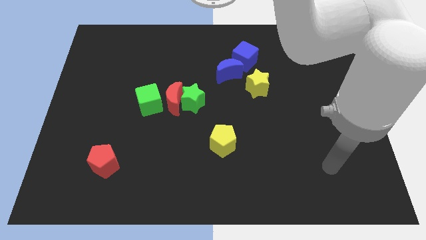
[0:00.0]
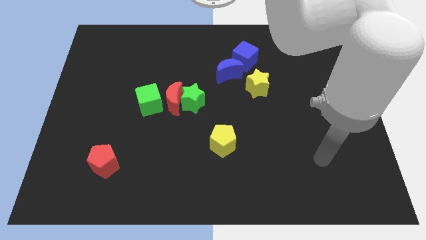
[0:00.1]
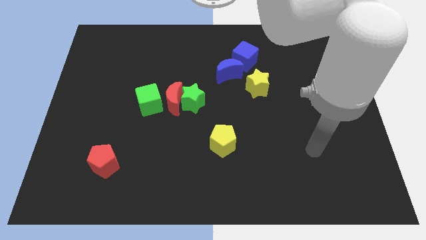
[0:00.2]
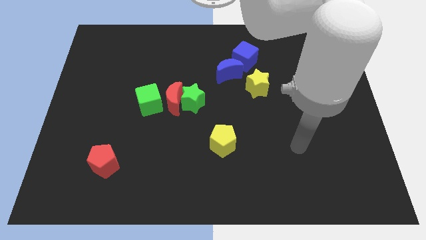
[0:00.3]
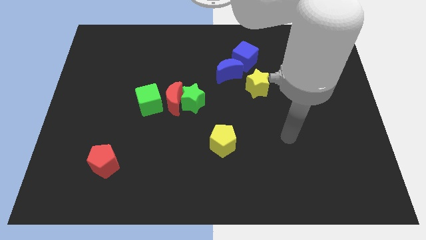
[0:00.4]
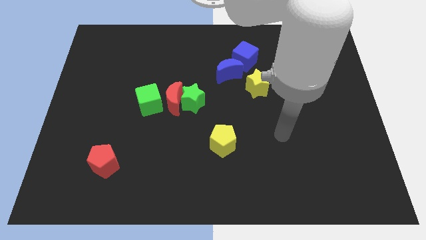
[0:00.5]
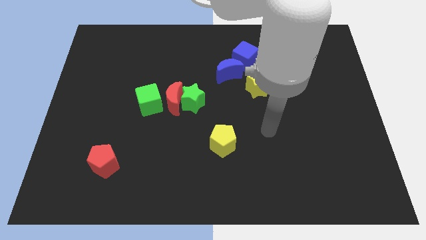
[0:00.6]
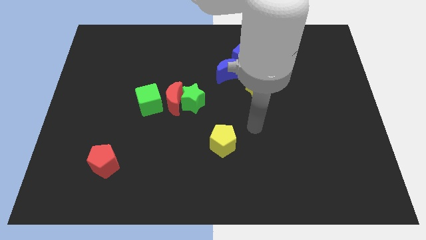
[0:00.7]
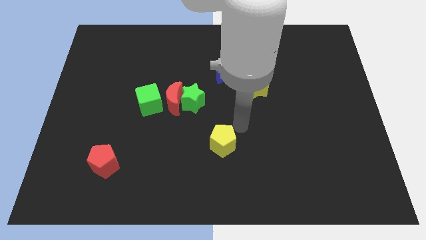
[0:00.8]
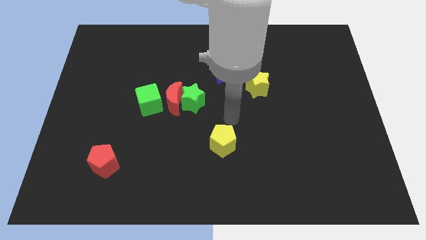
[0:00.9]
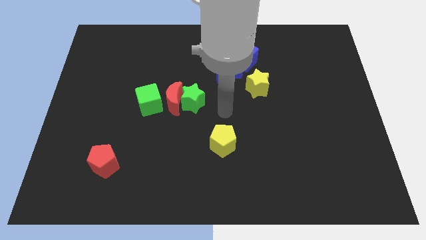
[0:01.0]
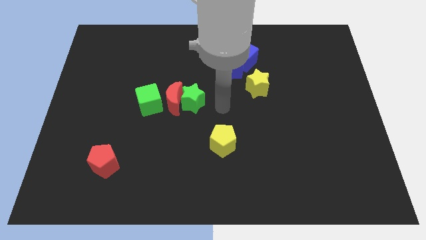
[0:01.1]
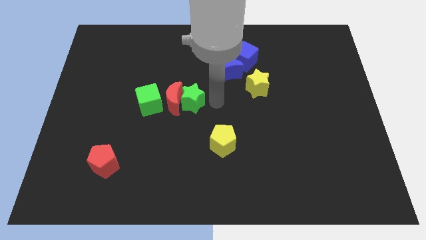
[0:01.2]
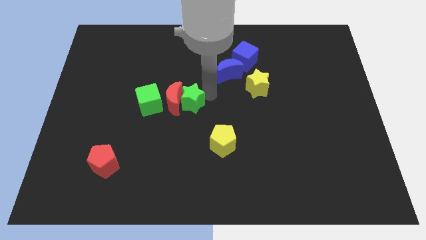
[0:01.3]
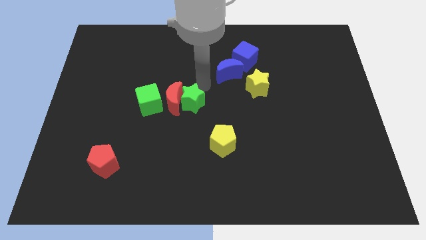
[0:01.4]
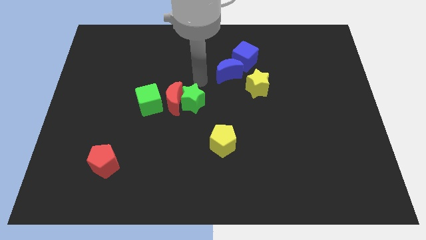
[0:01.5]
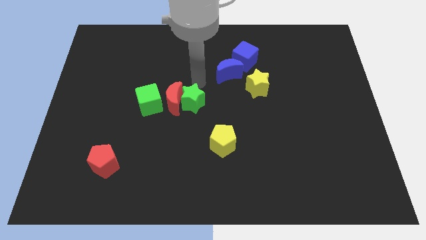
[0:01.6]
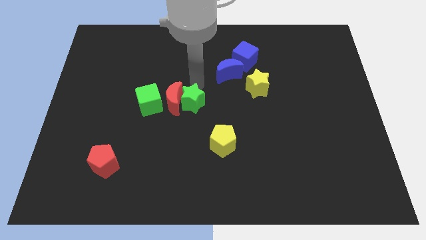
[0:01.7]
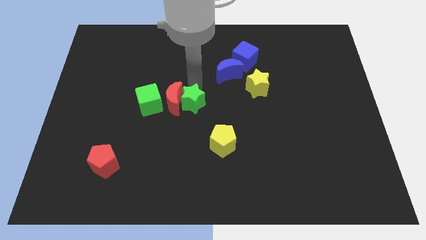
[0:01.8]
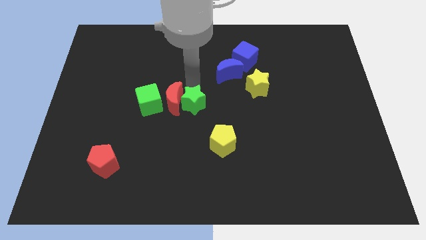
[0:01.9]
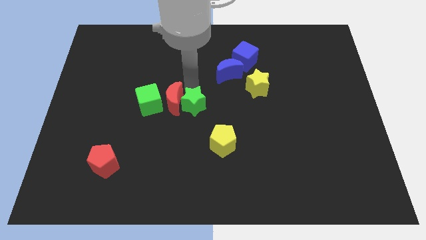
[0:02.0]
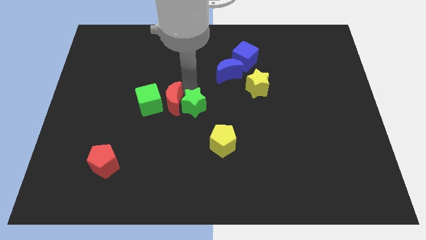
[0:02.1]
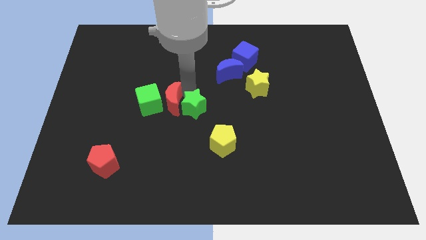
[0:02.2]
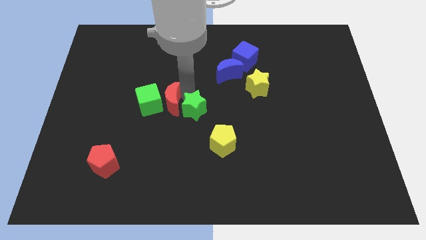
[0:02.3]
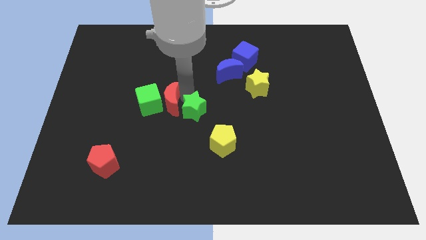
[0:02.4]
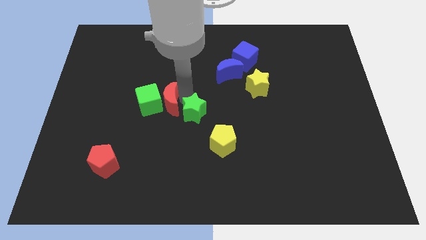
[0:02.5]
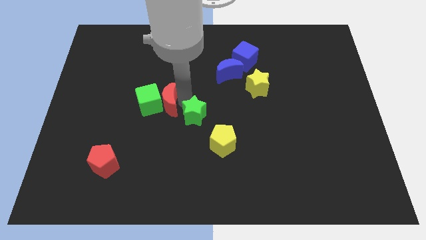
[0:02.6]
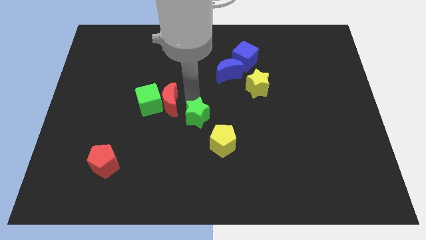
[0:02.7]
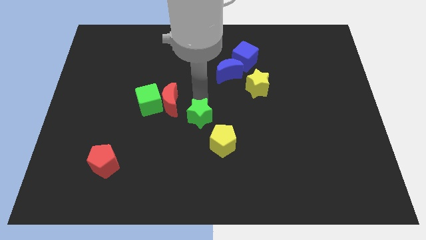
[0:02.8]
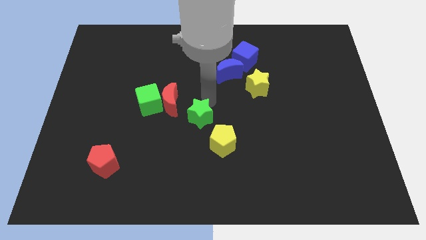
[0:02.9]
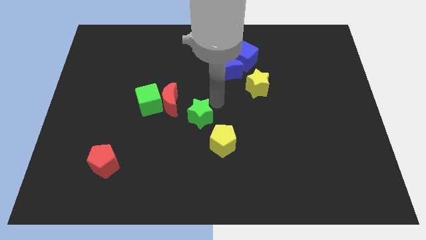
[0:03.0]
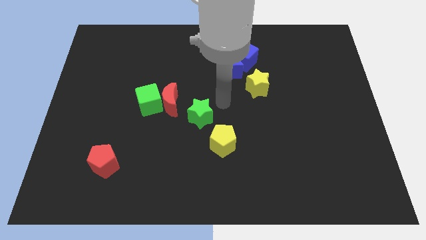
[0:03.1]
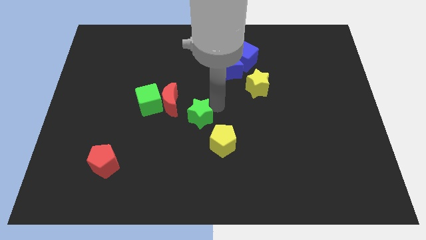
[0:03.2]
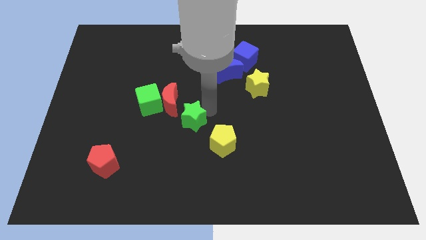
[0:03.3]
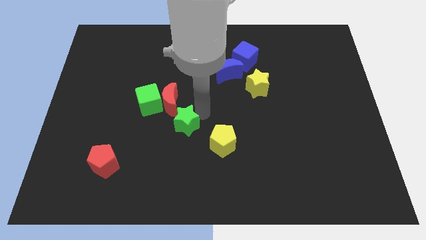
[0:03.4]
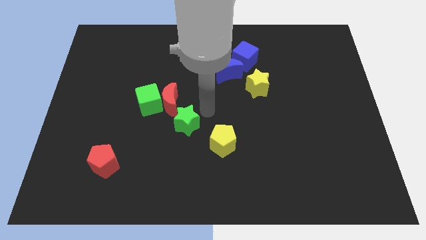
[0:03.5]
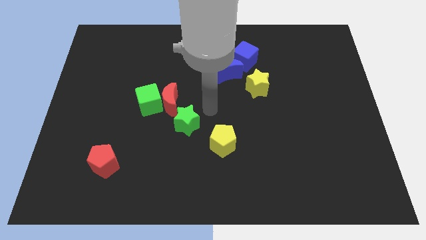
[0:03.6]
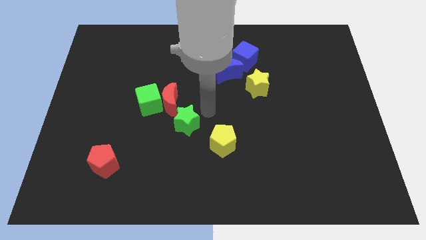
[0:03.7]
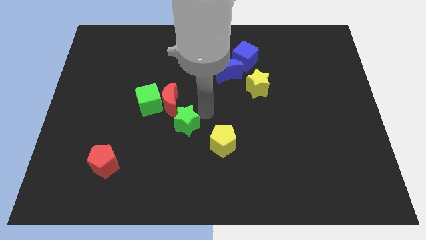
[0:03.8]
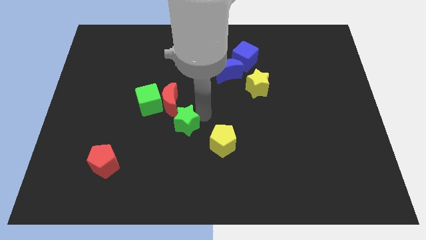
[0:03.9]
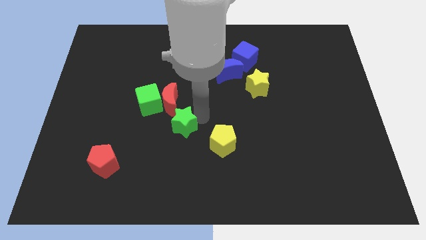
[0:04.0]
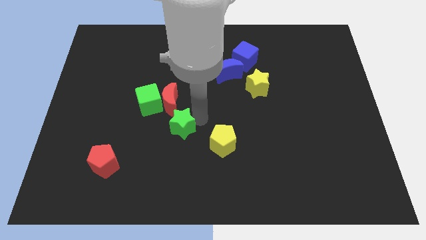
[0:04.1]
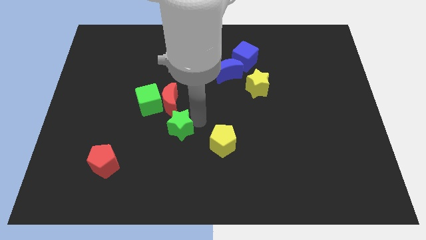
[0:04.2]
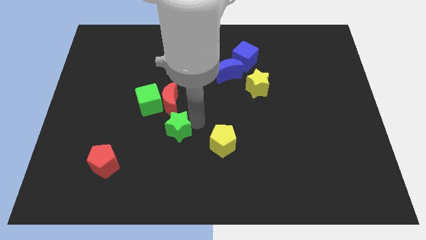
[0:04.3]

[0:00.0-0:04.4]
slide the green star diagonally down and to the left somewhat

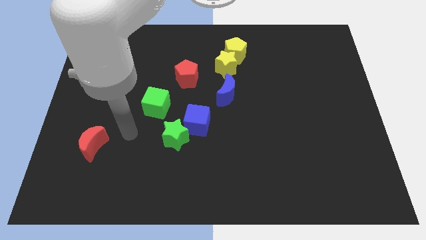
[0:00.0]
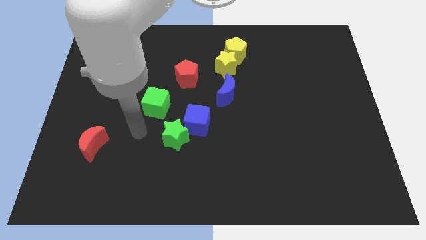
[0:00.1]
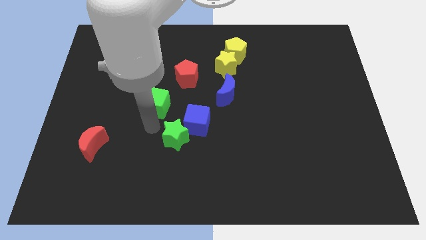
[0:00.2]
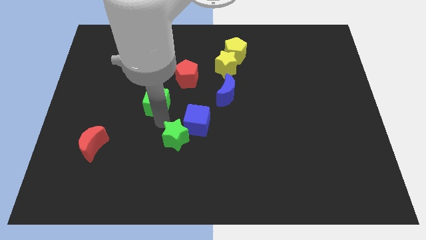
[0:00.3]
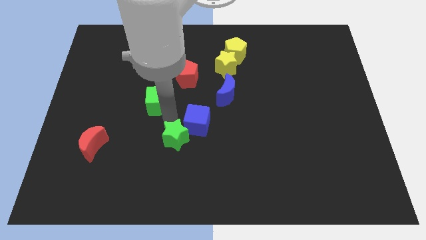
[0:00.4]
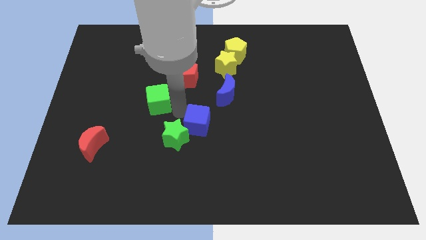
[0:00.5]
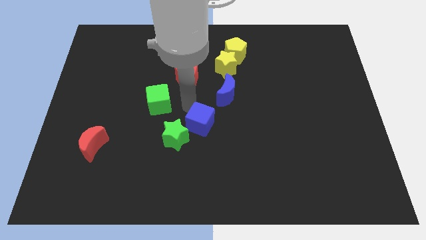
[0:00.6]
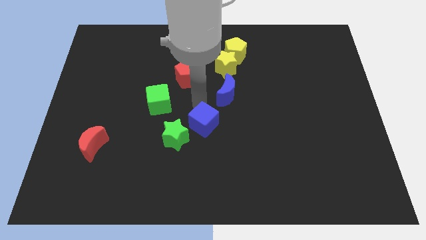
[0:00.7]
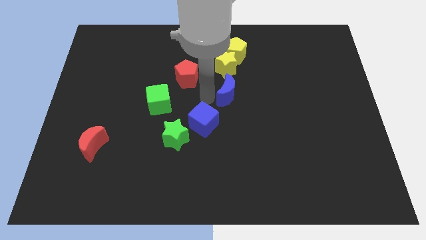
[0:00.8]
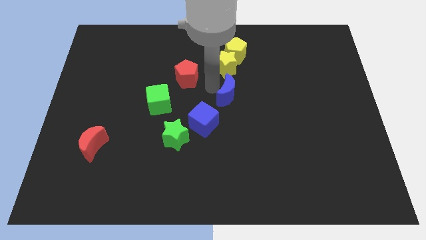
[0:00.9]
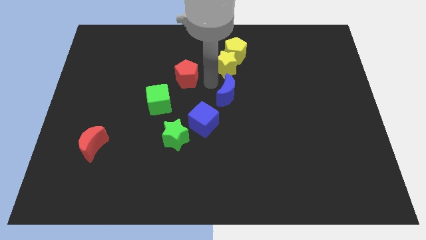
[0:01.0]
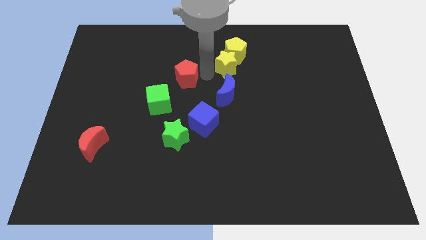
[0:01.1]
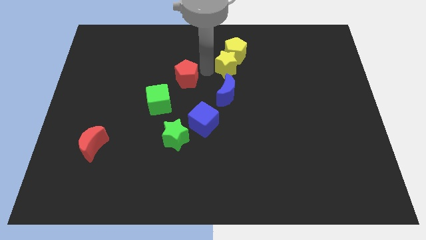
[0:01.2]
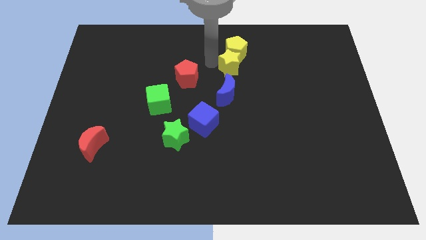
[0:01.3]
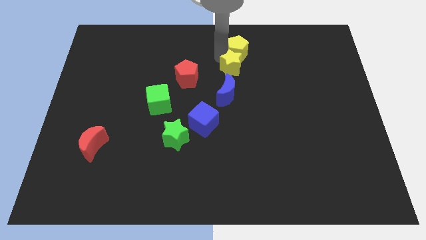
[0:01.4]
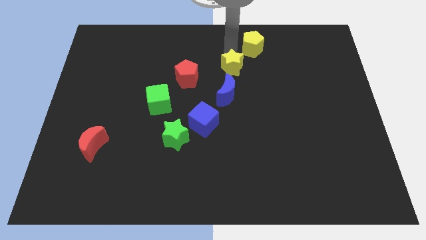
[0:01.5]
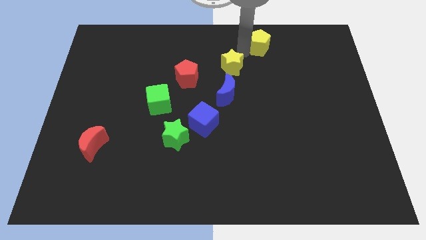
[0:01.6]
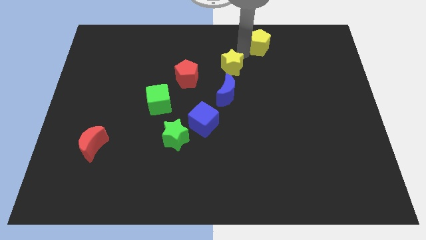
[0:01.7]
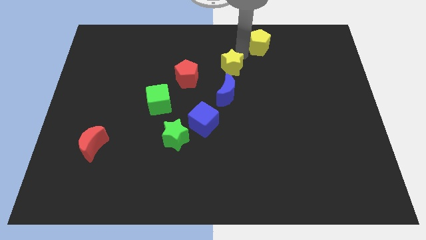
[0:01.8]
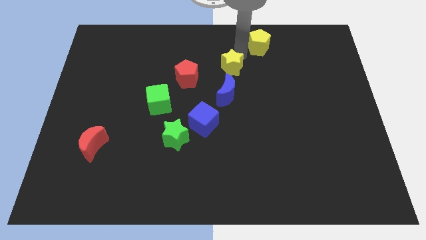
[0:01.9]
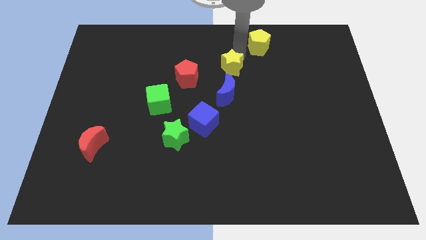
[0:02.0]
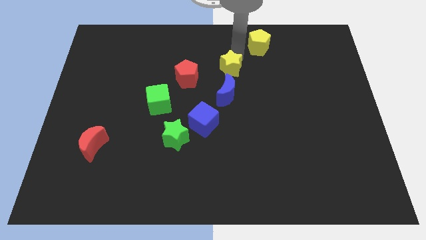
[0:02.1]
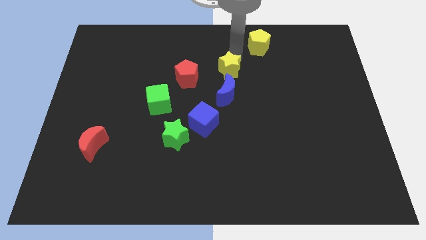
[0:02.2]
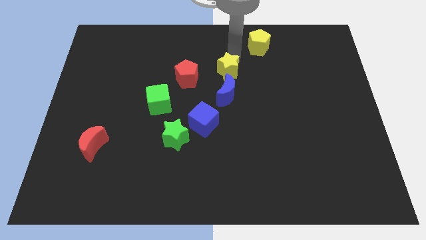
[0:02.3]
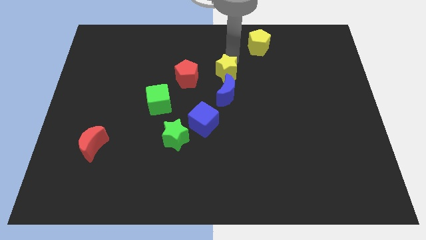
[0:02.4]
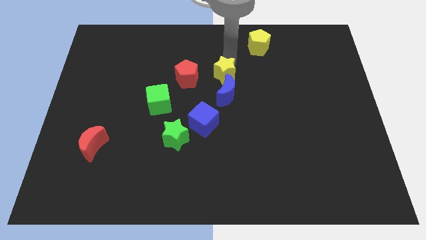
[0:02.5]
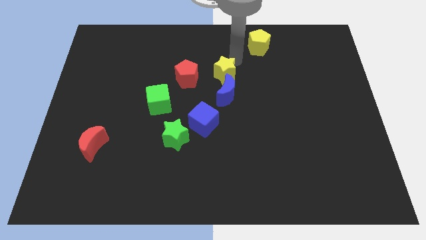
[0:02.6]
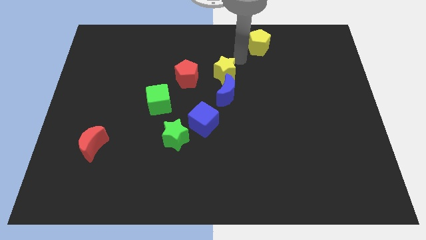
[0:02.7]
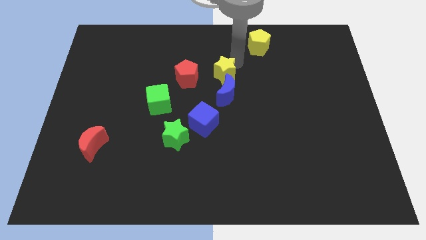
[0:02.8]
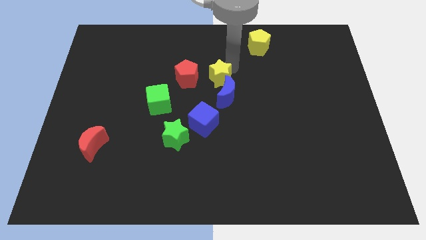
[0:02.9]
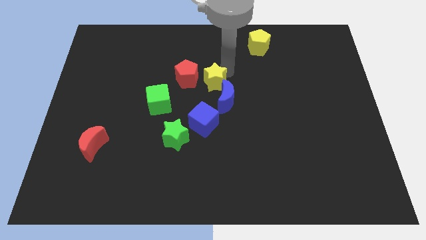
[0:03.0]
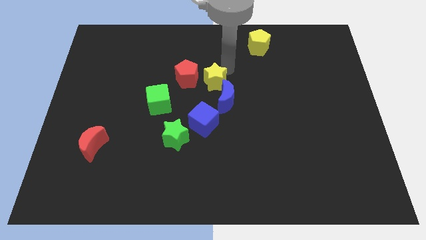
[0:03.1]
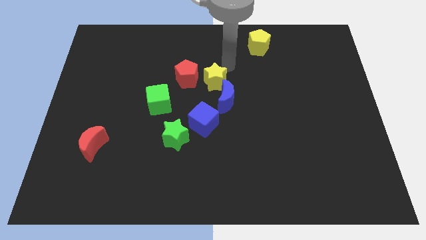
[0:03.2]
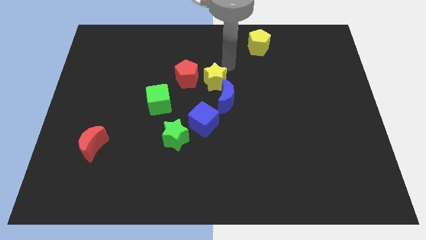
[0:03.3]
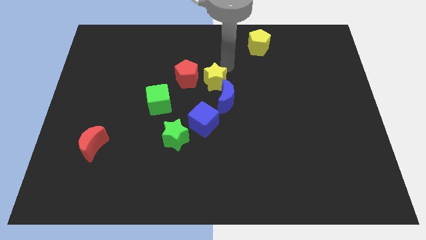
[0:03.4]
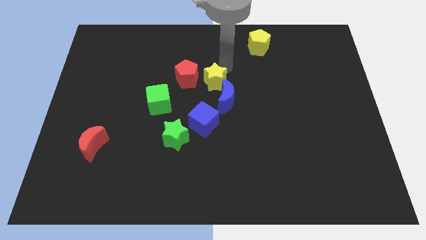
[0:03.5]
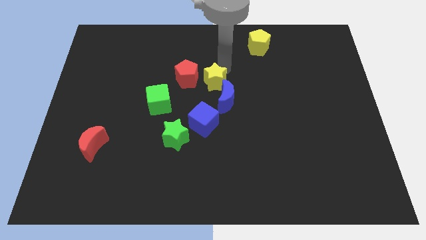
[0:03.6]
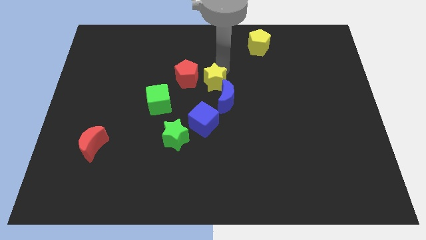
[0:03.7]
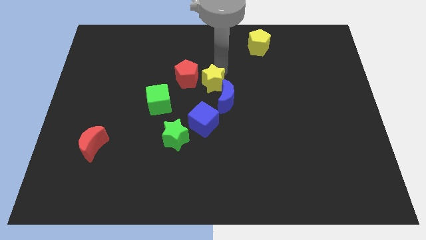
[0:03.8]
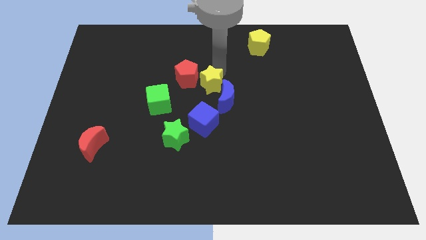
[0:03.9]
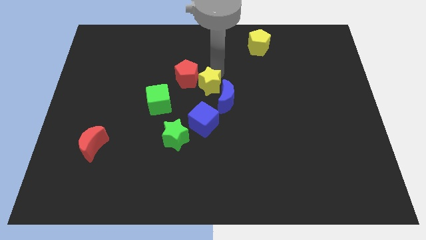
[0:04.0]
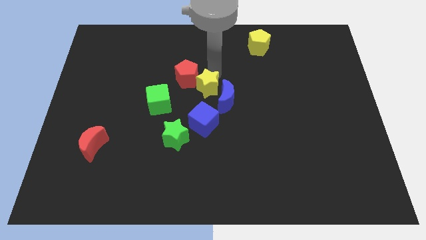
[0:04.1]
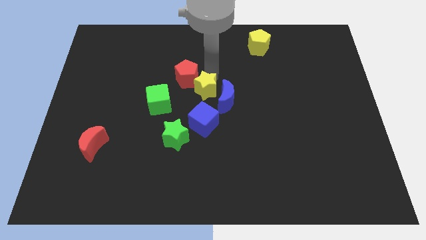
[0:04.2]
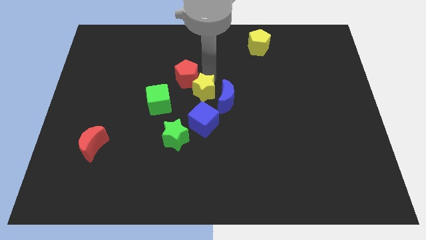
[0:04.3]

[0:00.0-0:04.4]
move the yellow star down somewhat
